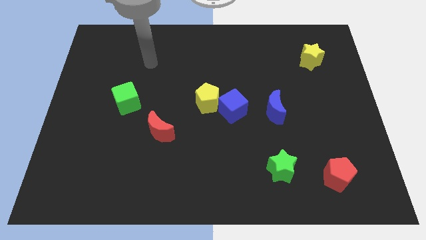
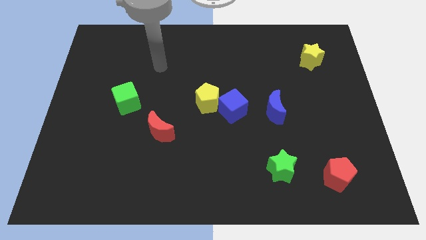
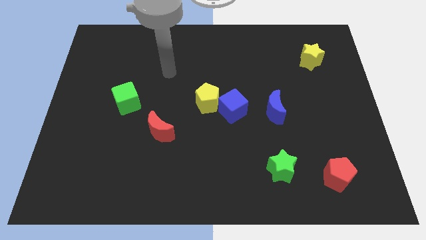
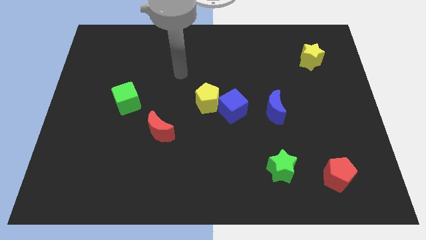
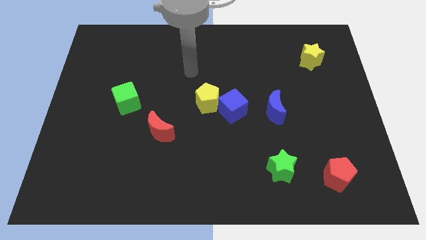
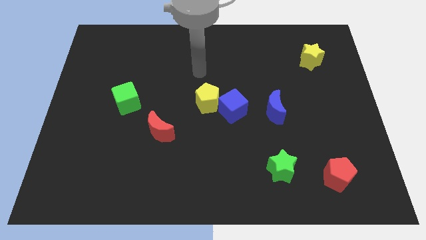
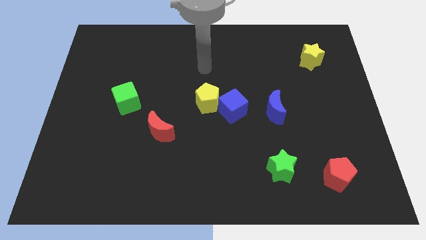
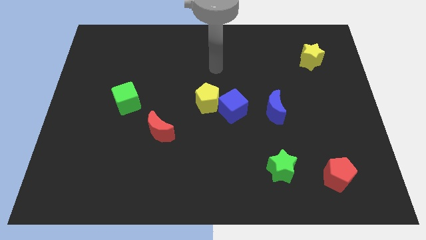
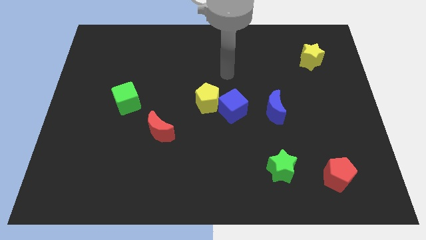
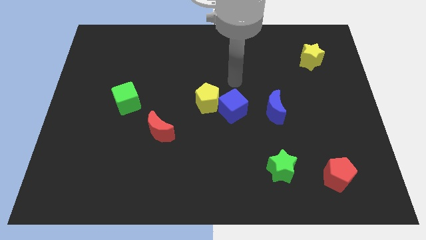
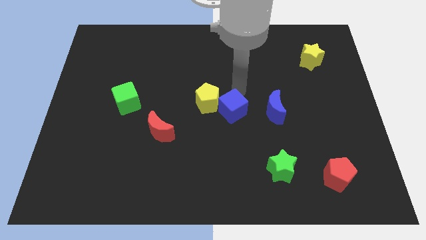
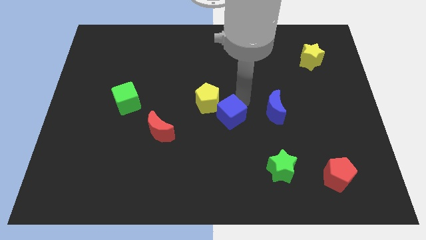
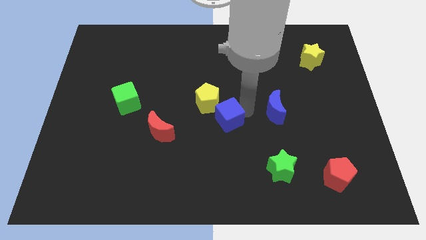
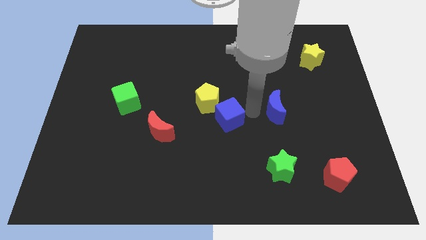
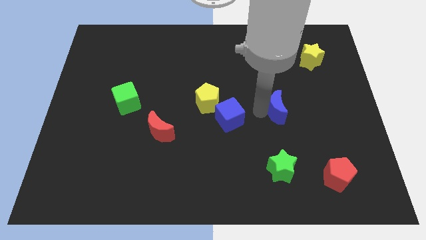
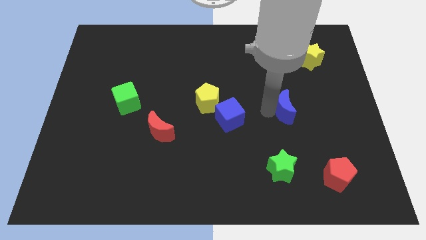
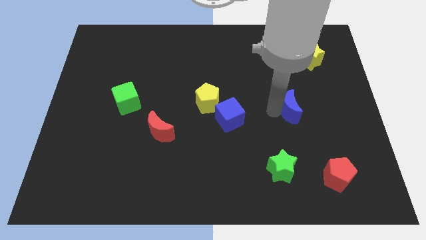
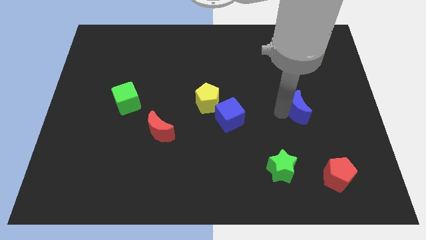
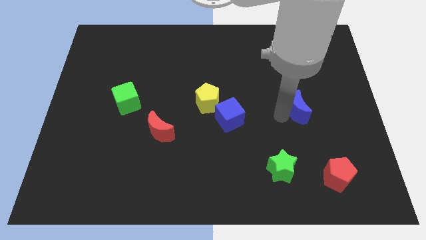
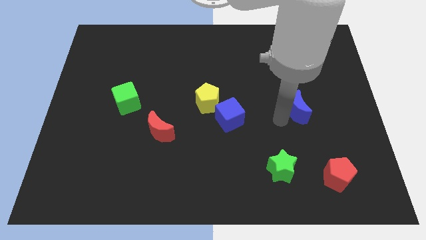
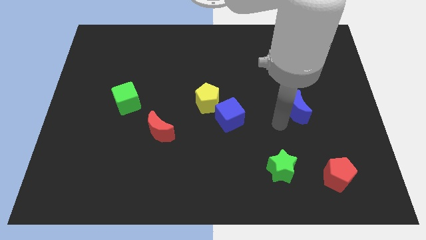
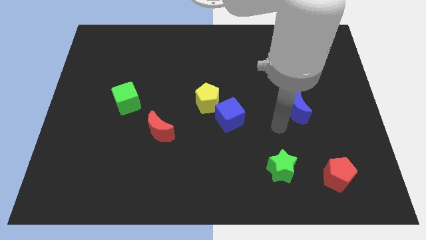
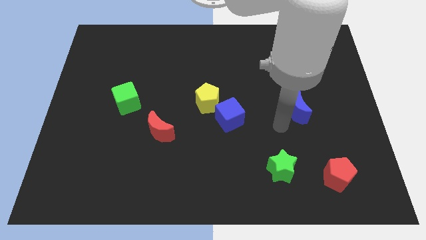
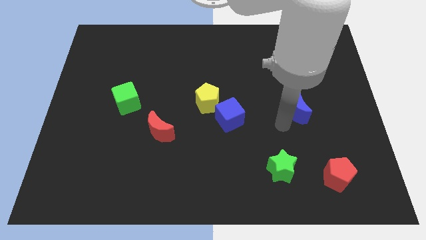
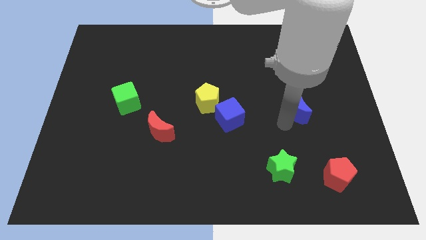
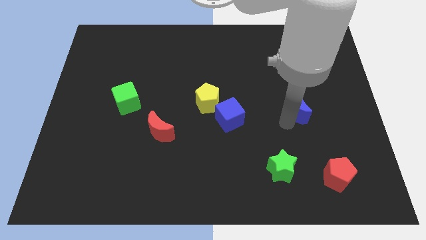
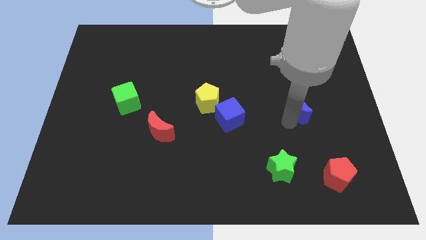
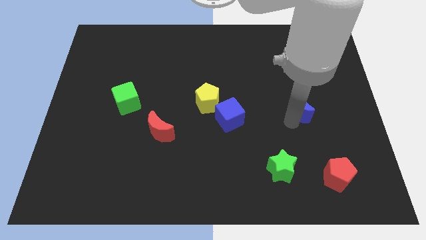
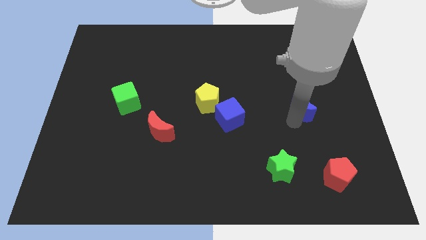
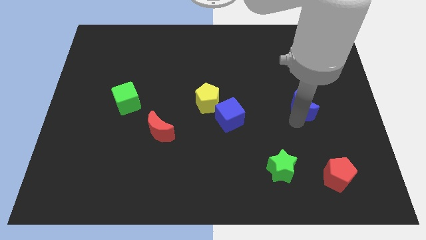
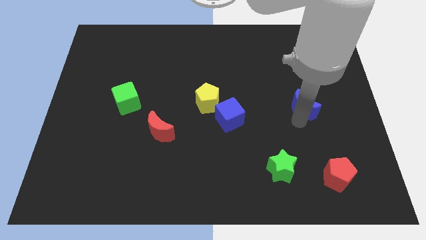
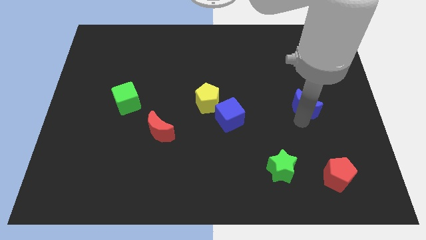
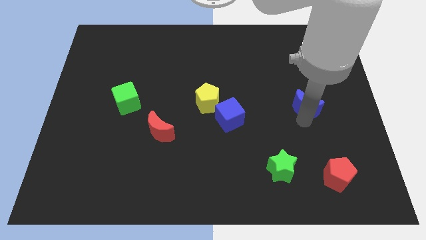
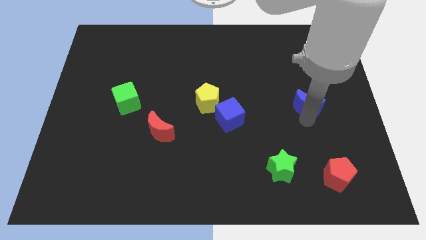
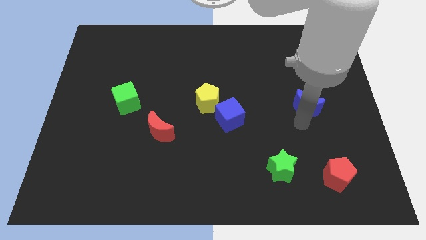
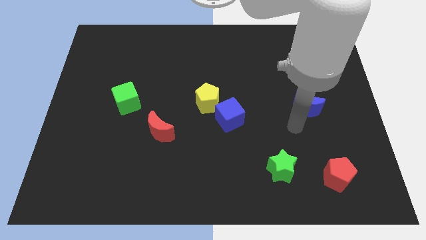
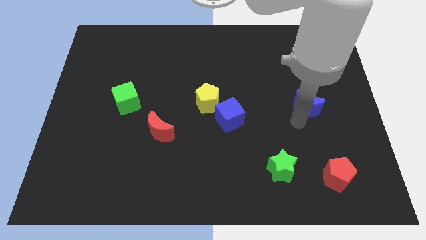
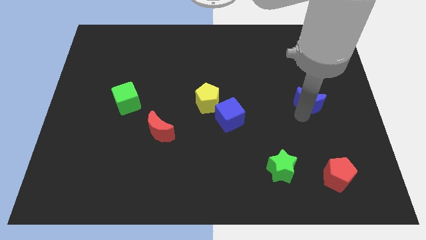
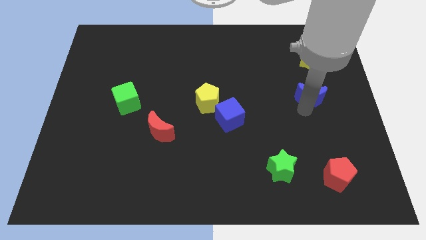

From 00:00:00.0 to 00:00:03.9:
slide the blue moon a little bit upwards and to the right

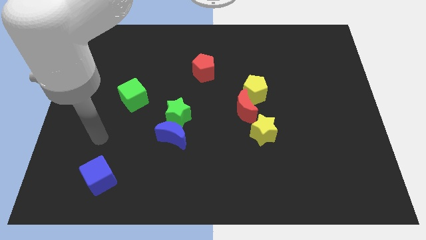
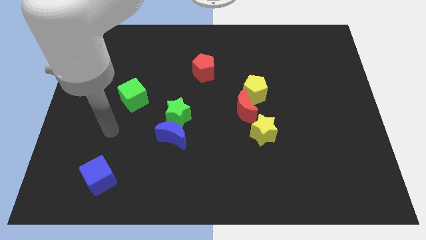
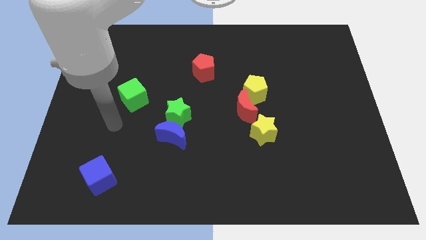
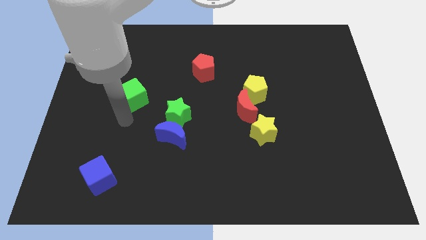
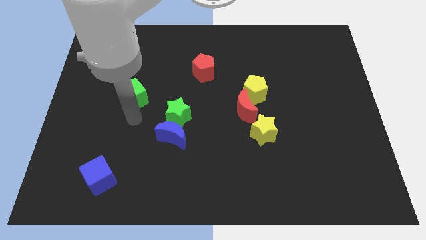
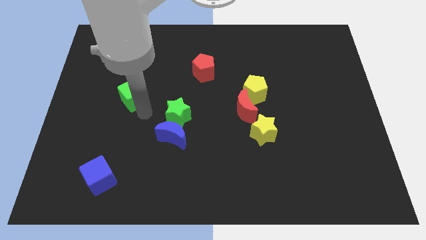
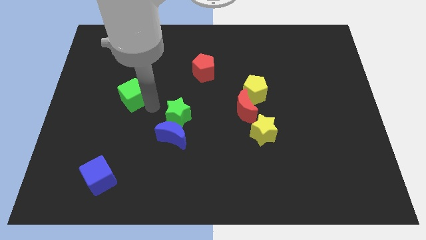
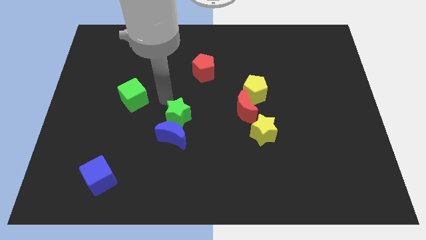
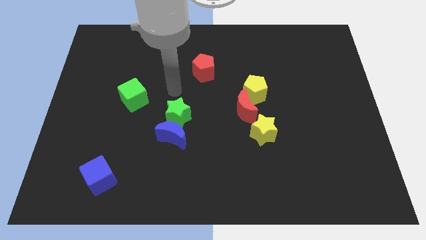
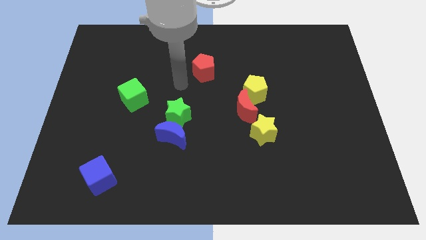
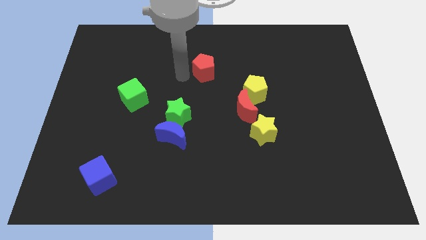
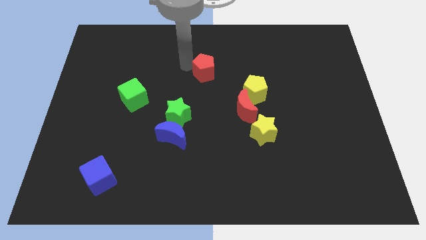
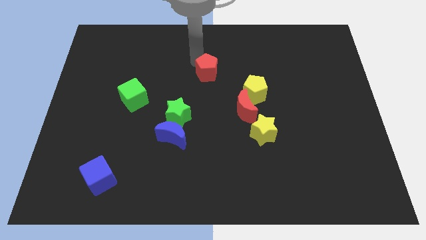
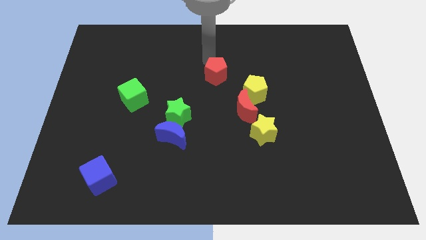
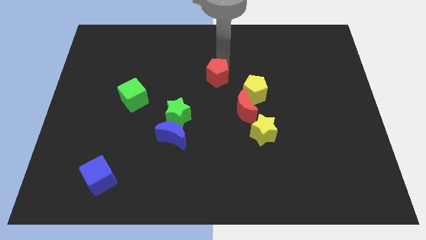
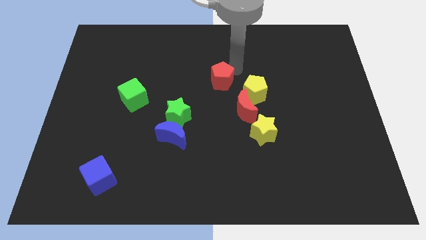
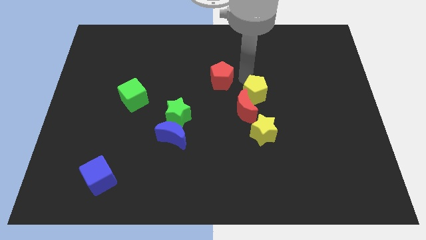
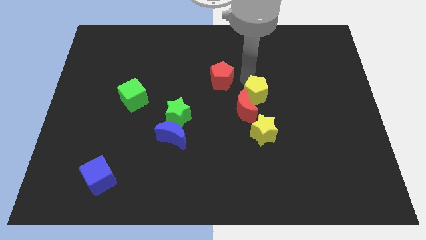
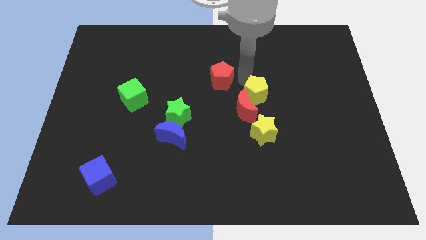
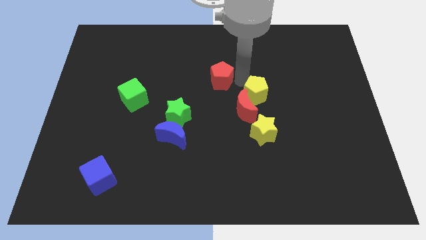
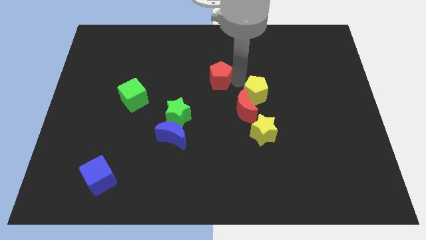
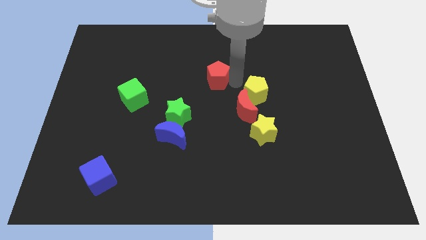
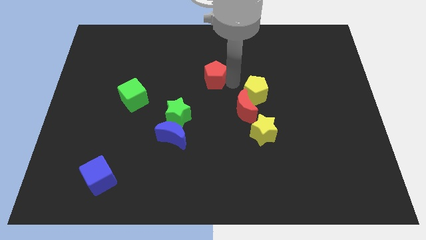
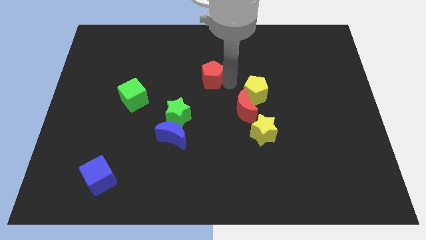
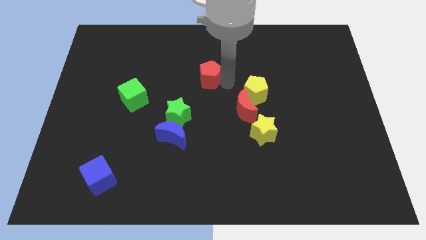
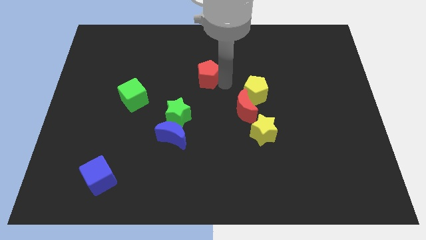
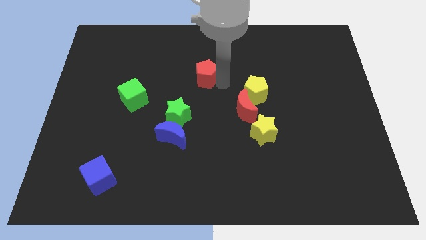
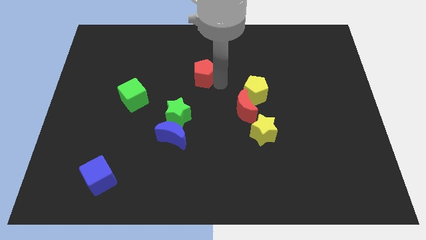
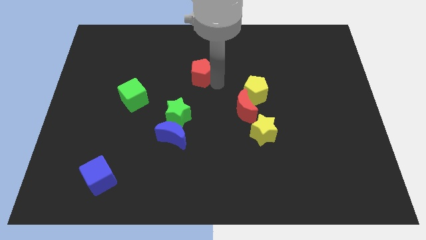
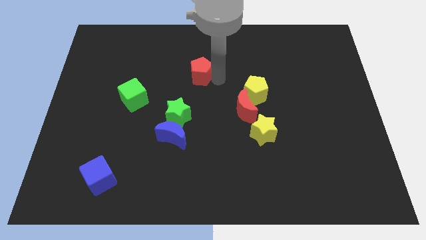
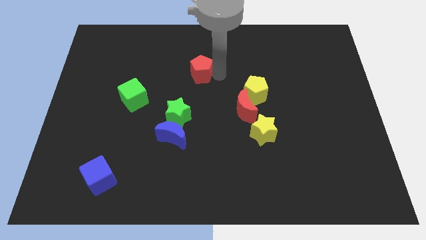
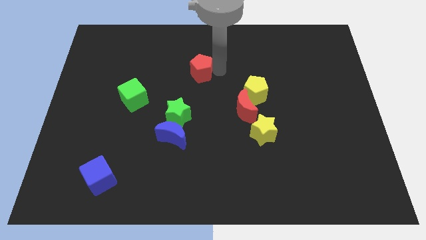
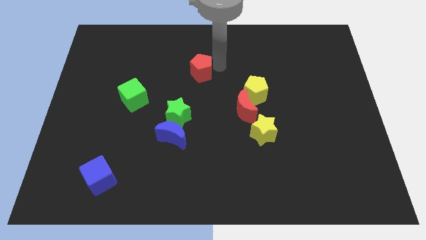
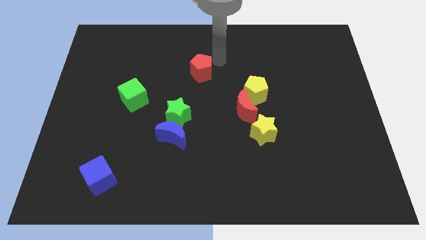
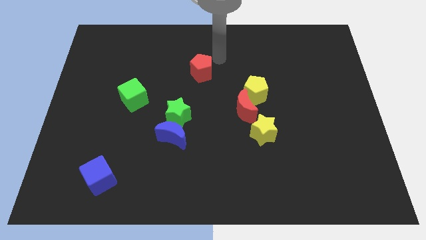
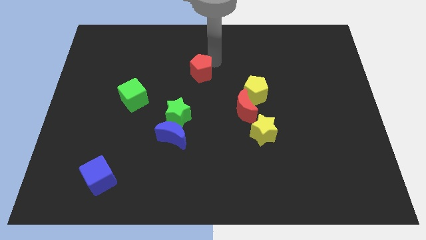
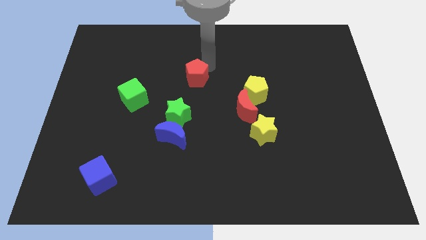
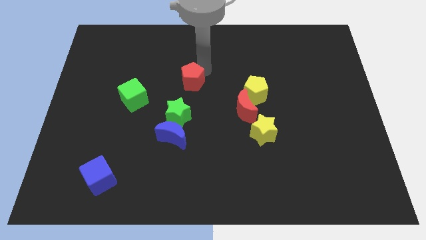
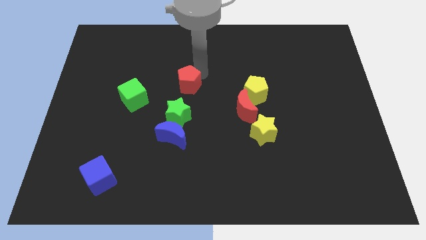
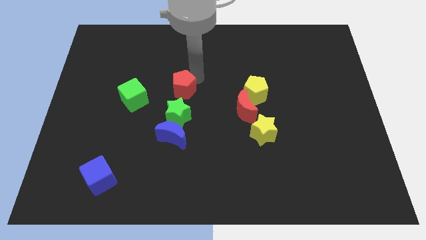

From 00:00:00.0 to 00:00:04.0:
move the red pentagon downwards and then to the left a little bit

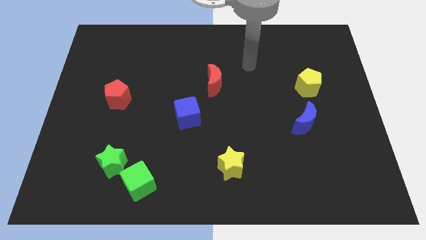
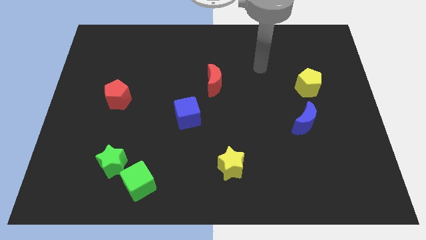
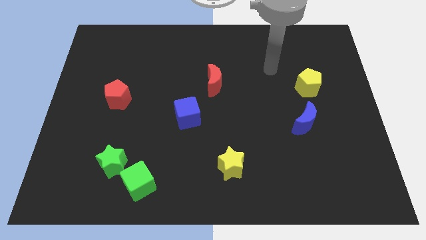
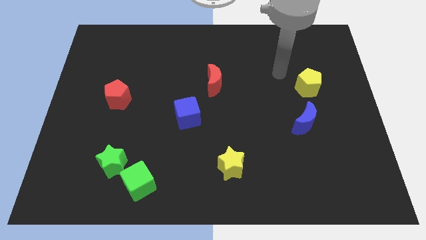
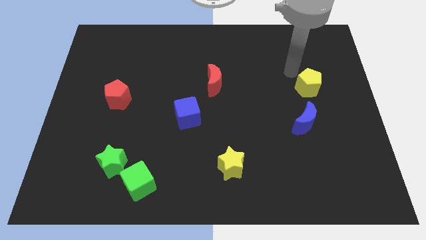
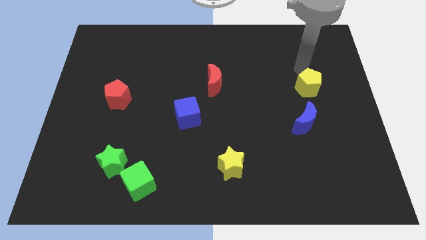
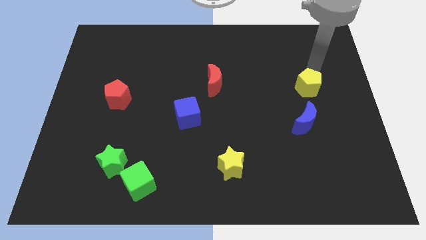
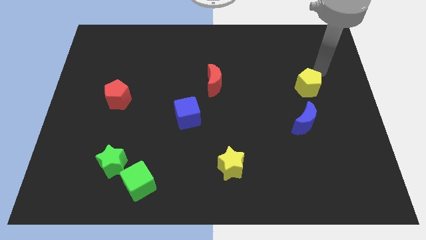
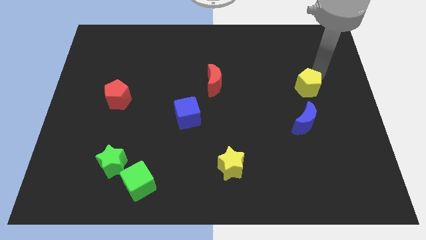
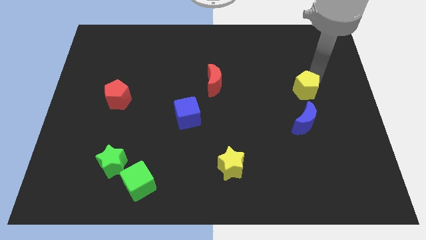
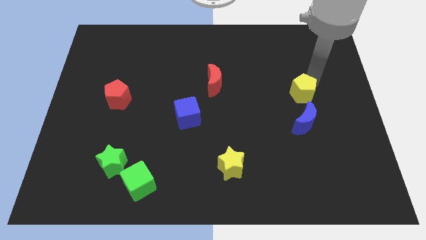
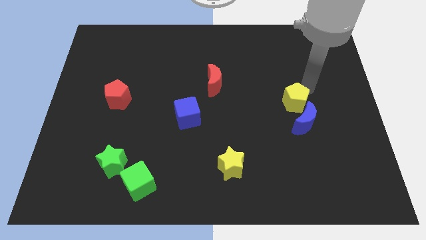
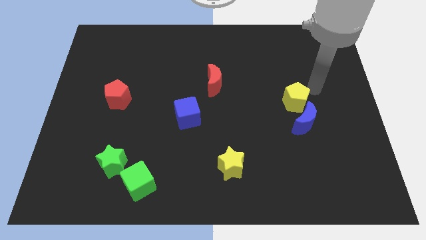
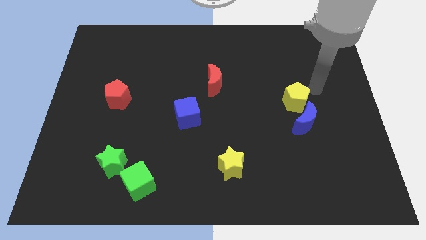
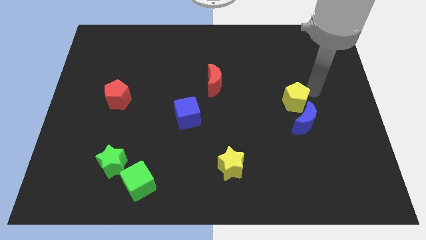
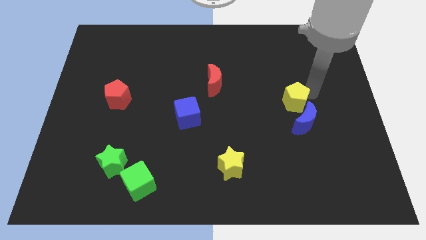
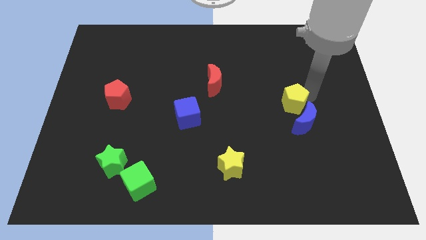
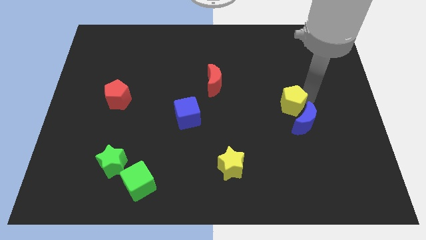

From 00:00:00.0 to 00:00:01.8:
slightly slide the yellow pentagon down and then to the left
